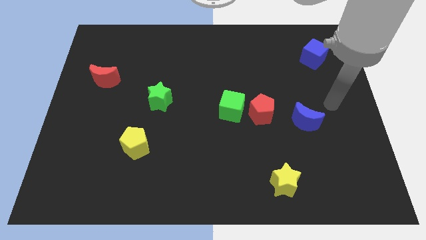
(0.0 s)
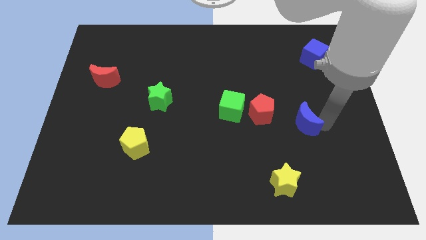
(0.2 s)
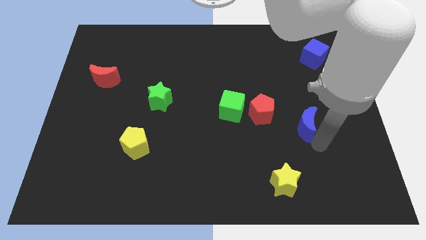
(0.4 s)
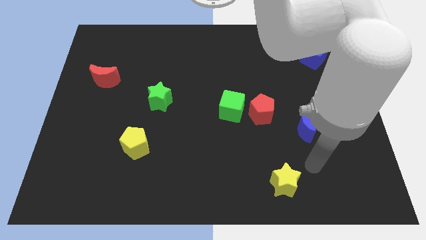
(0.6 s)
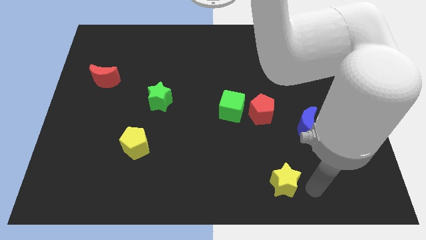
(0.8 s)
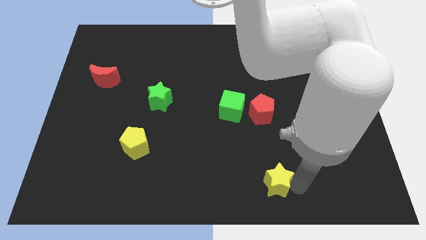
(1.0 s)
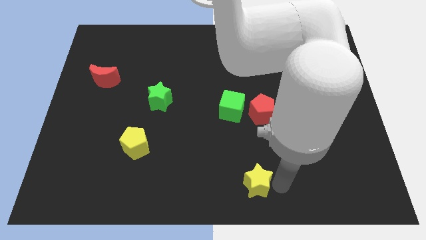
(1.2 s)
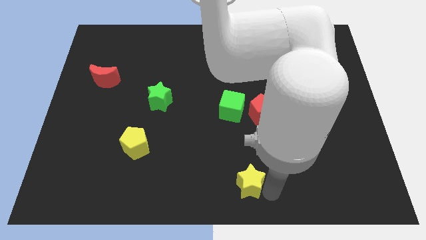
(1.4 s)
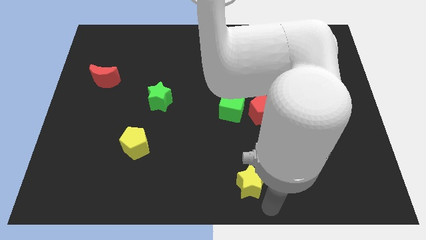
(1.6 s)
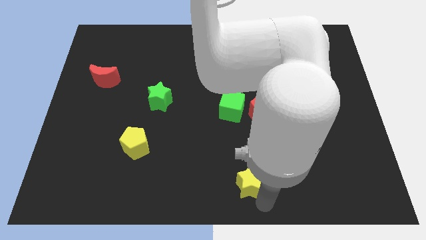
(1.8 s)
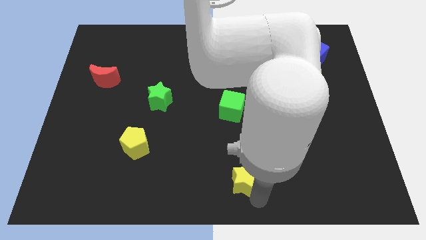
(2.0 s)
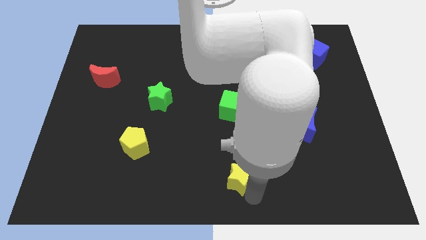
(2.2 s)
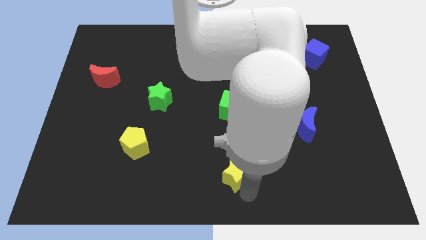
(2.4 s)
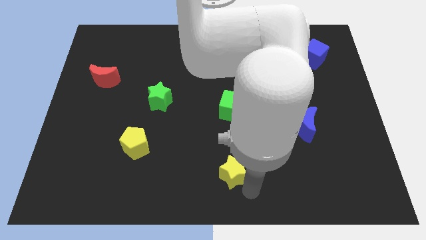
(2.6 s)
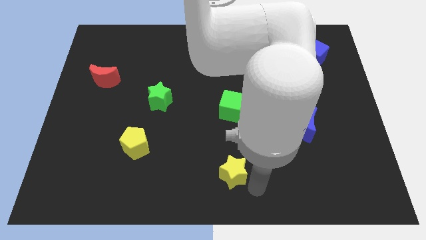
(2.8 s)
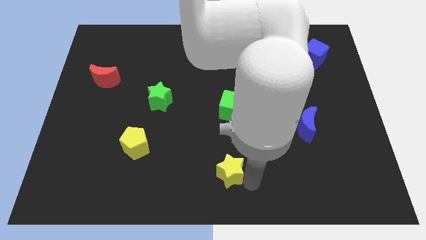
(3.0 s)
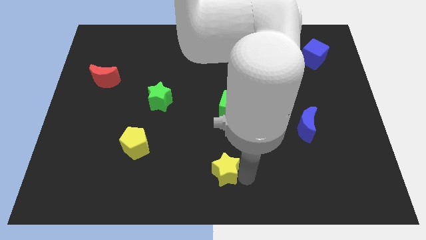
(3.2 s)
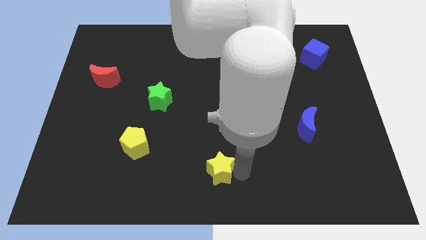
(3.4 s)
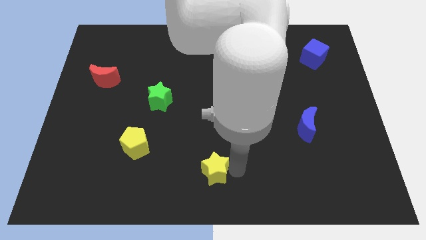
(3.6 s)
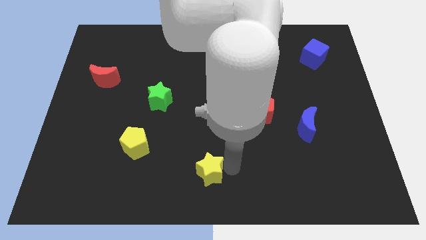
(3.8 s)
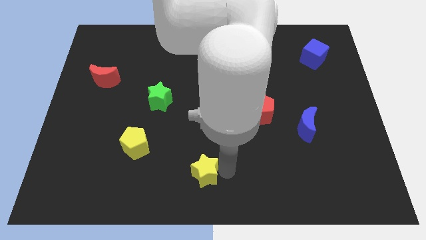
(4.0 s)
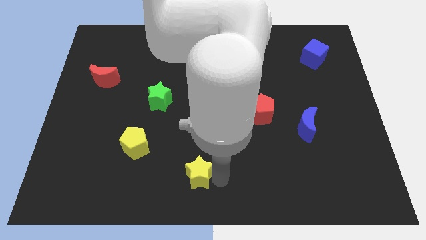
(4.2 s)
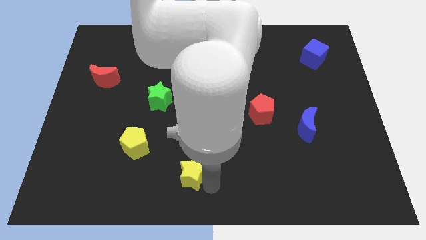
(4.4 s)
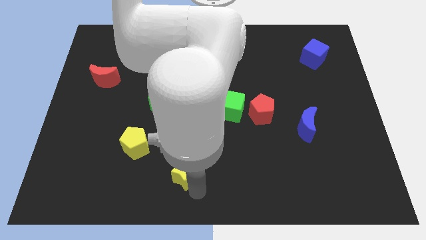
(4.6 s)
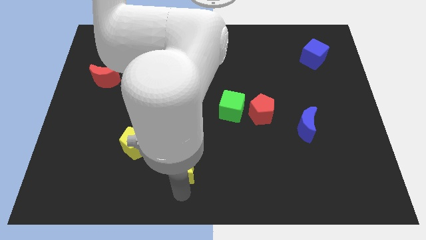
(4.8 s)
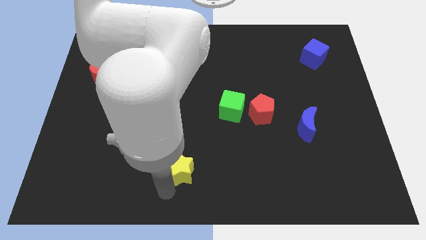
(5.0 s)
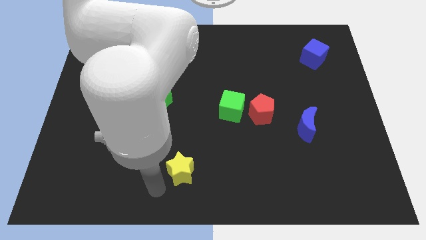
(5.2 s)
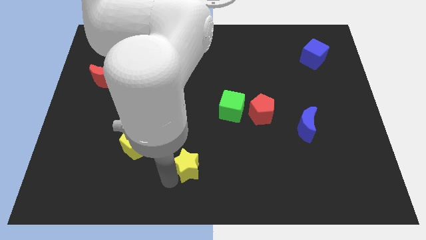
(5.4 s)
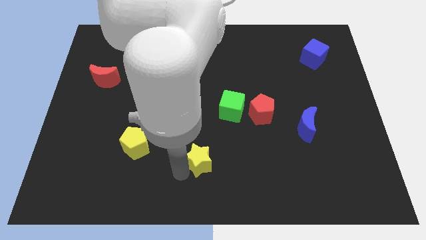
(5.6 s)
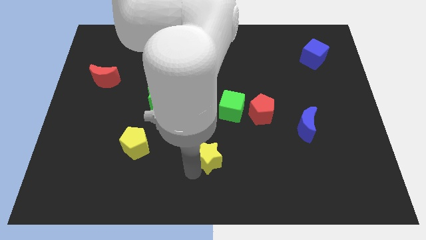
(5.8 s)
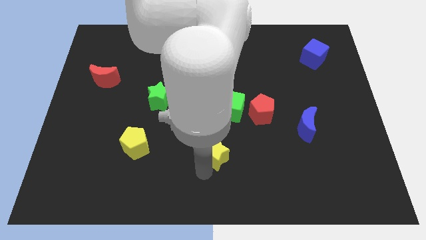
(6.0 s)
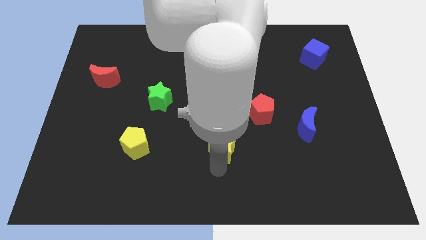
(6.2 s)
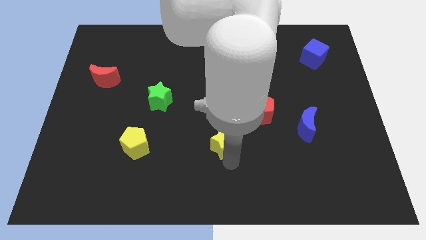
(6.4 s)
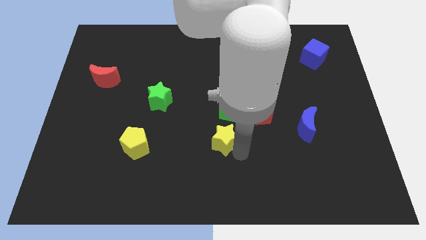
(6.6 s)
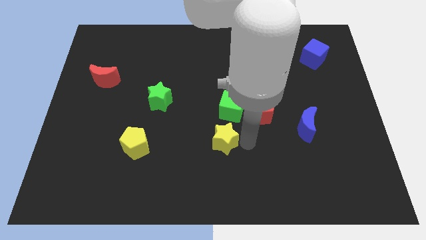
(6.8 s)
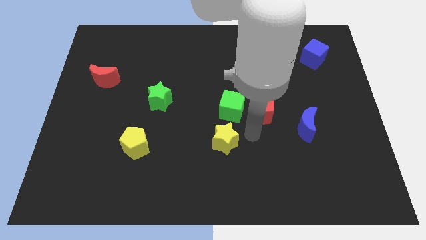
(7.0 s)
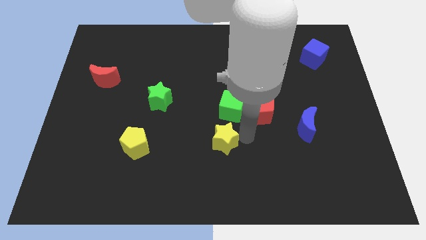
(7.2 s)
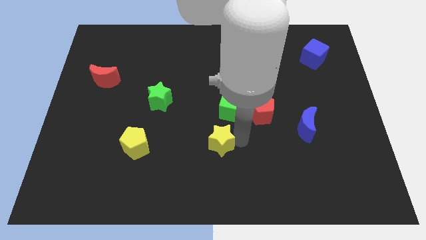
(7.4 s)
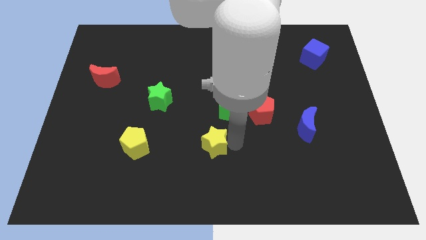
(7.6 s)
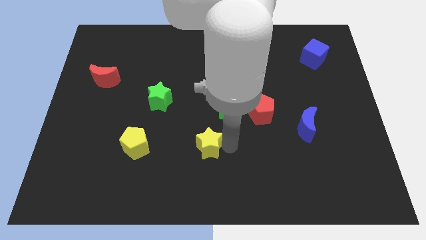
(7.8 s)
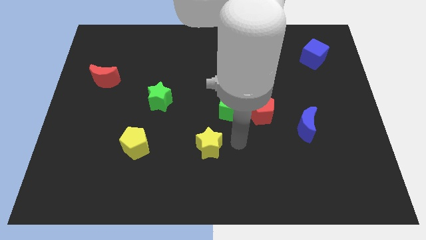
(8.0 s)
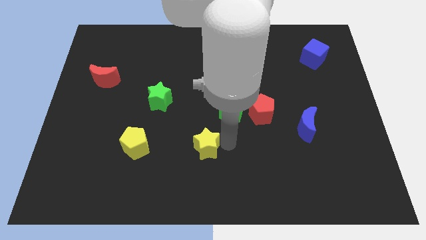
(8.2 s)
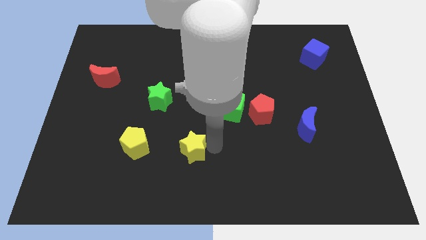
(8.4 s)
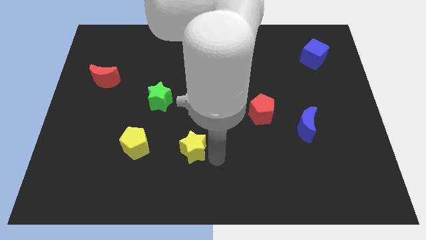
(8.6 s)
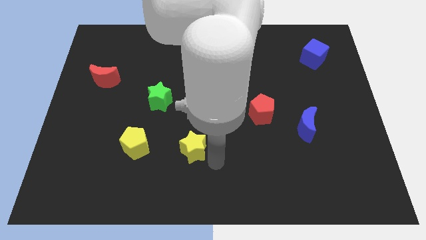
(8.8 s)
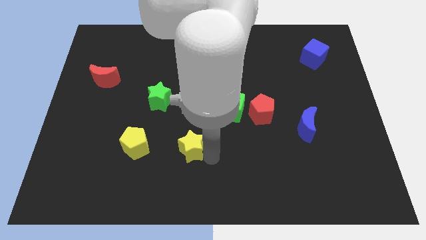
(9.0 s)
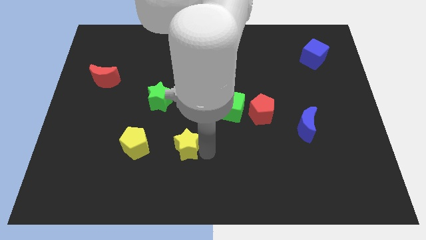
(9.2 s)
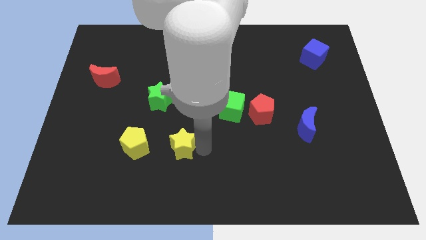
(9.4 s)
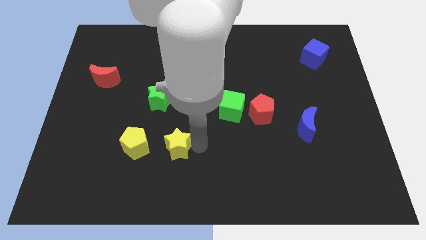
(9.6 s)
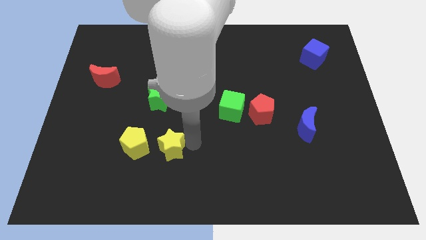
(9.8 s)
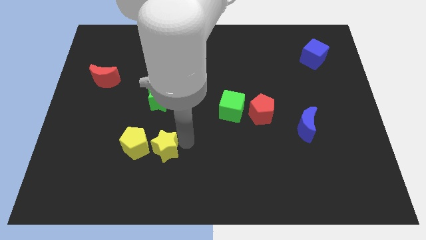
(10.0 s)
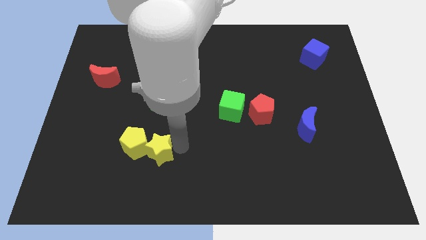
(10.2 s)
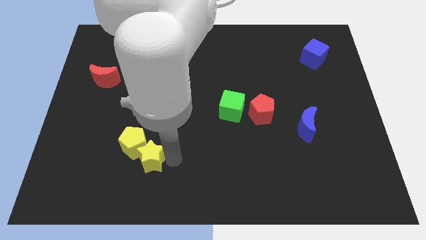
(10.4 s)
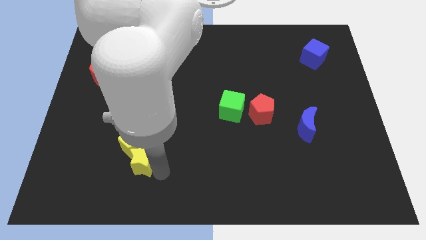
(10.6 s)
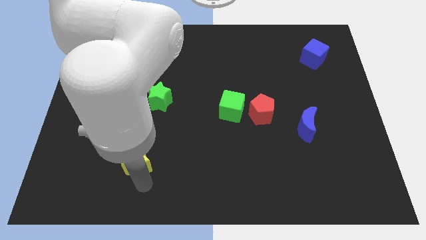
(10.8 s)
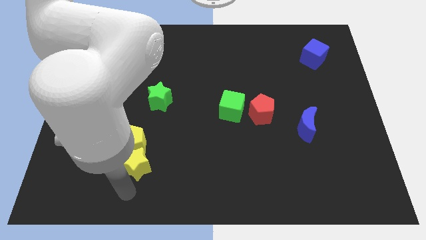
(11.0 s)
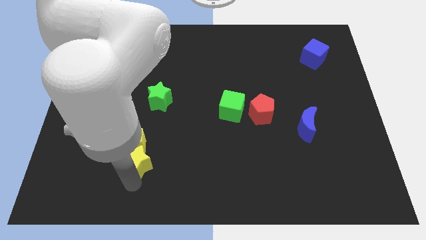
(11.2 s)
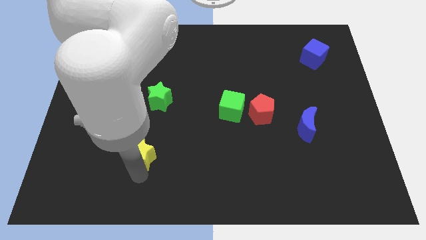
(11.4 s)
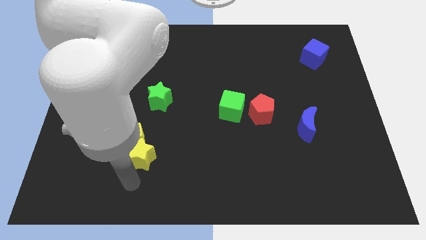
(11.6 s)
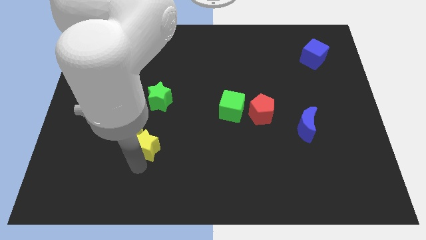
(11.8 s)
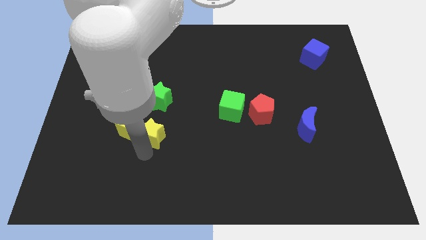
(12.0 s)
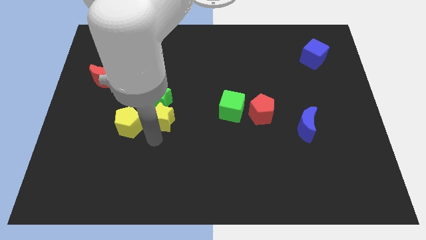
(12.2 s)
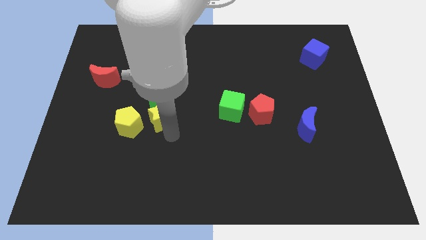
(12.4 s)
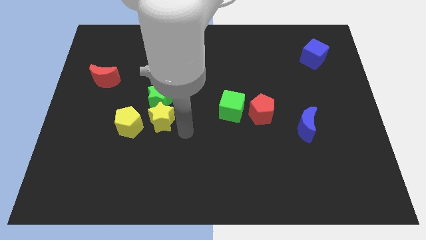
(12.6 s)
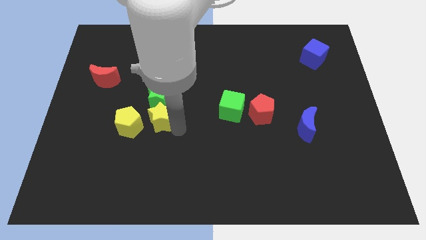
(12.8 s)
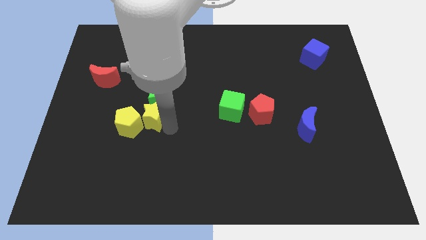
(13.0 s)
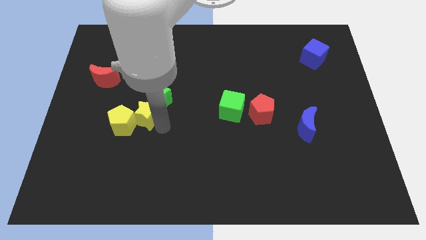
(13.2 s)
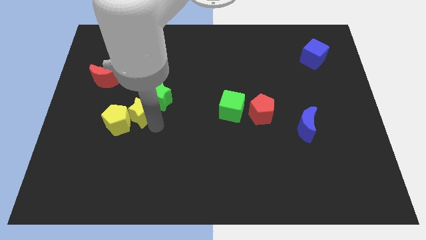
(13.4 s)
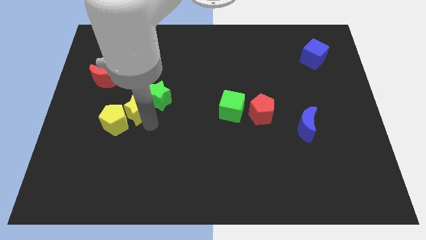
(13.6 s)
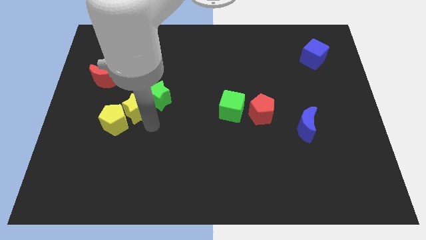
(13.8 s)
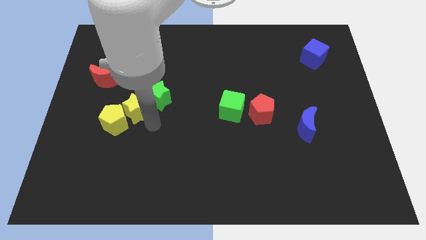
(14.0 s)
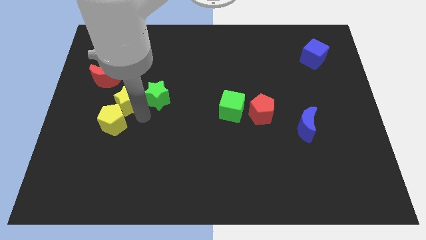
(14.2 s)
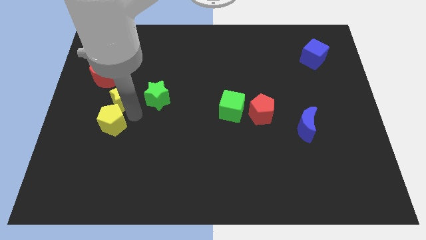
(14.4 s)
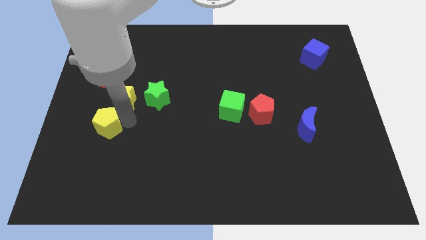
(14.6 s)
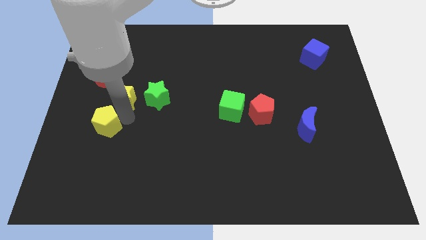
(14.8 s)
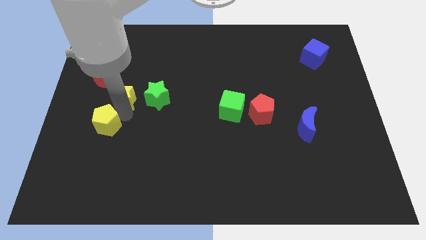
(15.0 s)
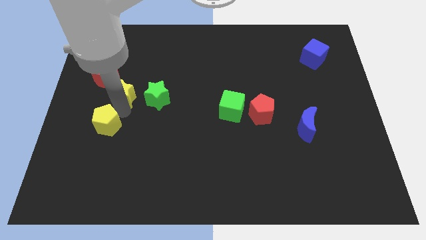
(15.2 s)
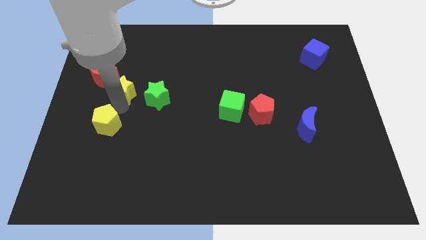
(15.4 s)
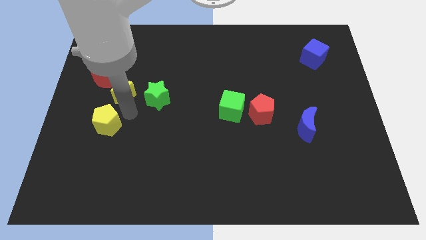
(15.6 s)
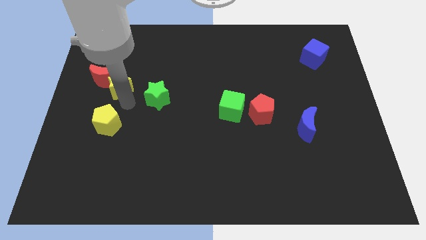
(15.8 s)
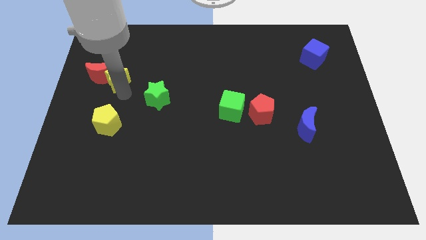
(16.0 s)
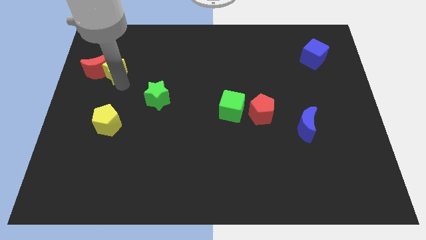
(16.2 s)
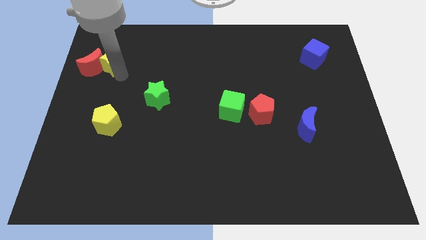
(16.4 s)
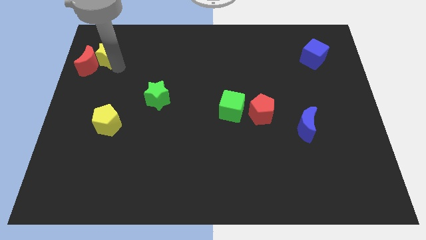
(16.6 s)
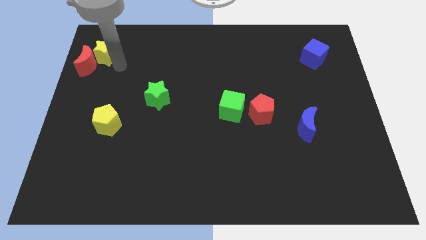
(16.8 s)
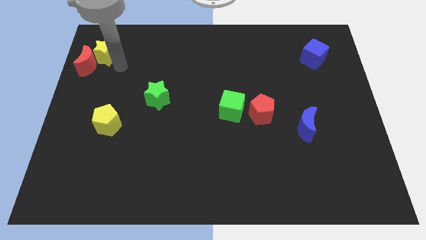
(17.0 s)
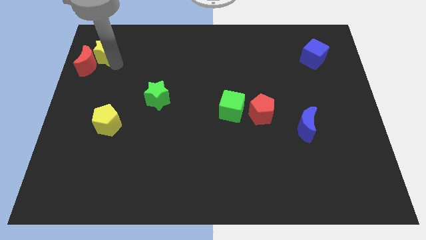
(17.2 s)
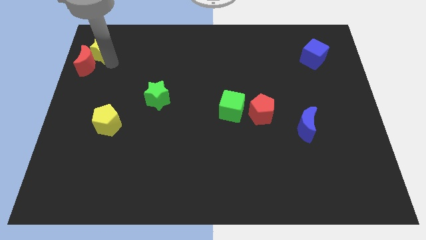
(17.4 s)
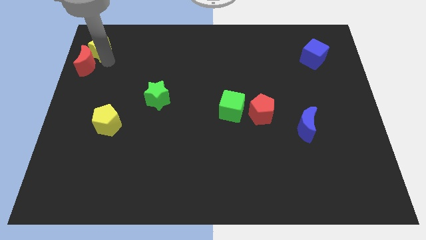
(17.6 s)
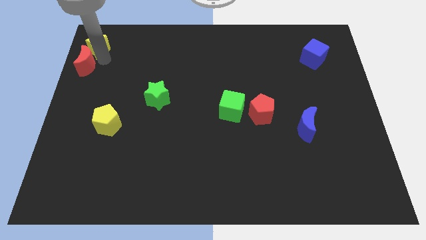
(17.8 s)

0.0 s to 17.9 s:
push the yellow star to the top left corner
